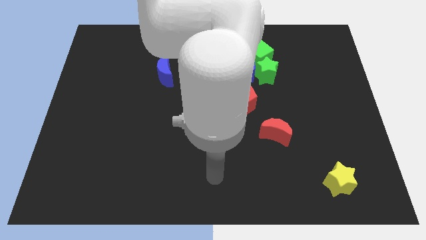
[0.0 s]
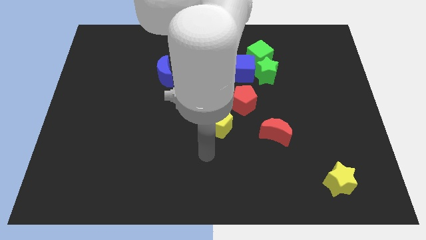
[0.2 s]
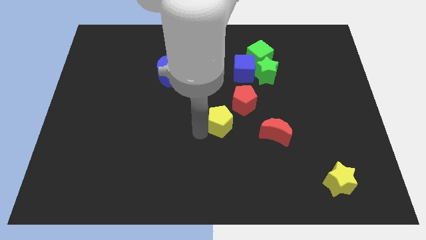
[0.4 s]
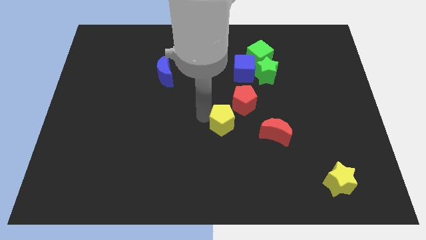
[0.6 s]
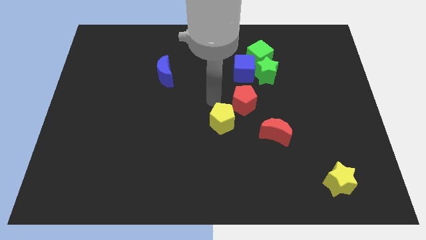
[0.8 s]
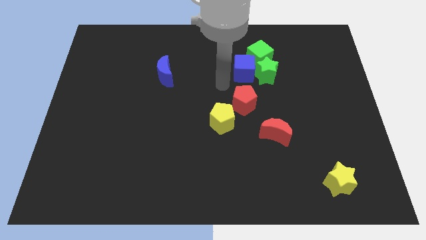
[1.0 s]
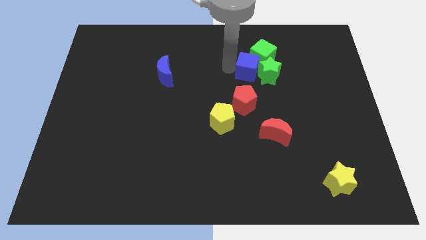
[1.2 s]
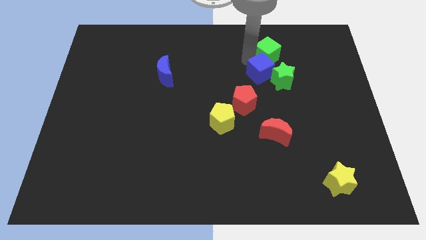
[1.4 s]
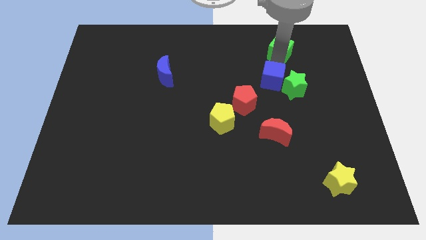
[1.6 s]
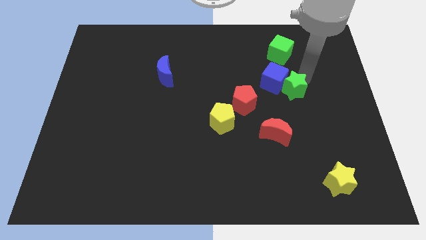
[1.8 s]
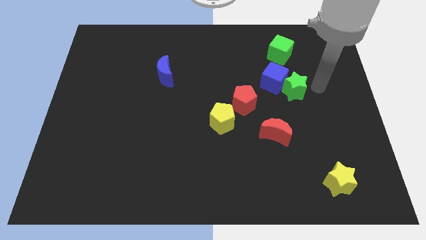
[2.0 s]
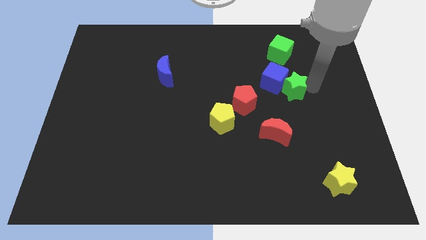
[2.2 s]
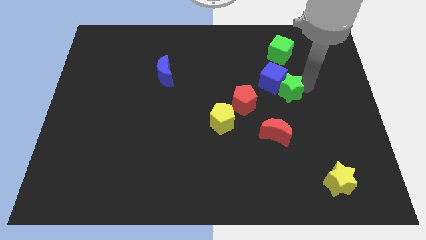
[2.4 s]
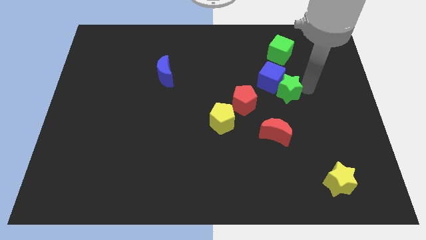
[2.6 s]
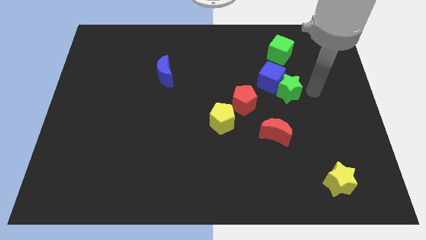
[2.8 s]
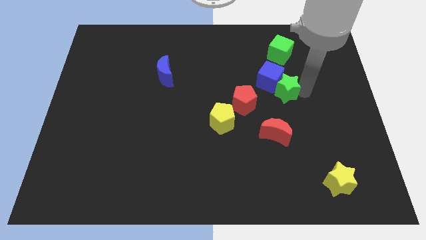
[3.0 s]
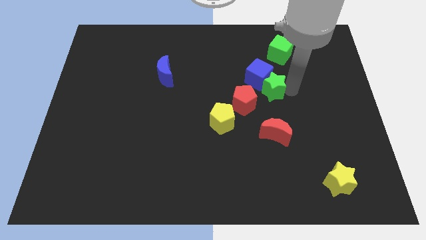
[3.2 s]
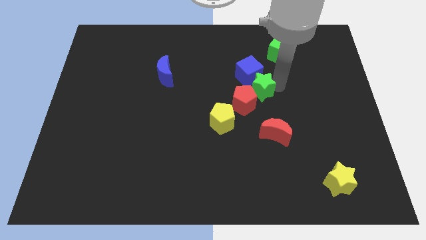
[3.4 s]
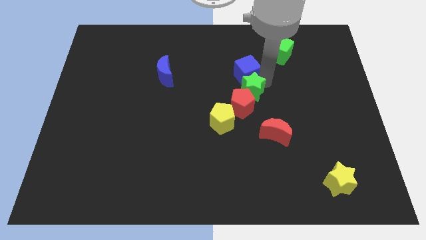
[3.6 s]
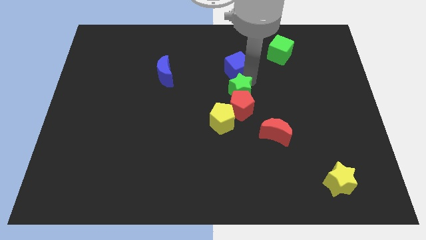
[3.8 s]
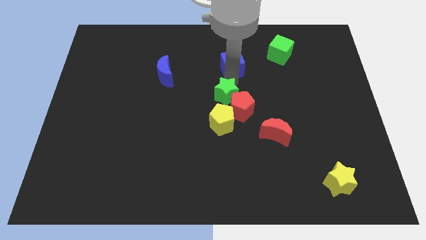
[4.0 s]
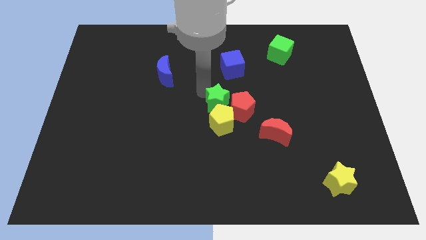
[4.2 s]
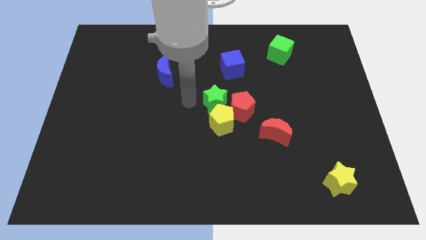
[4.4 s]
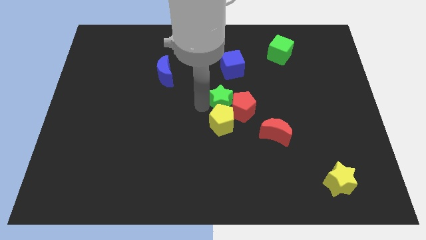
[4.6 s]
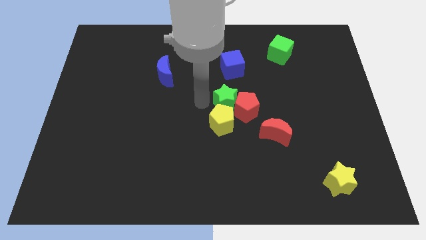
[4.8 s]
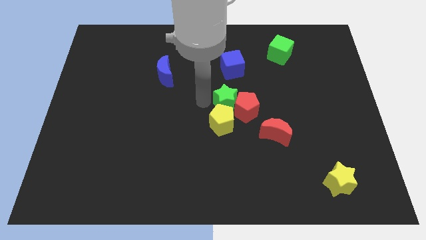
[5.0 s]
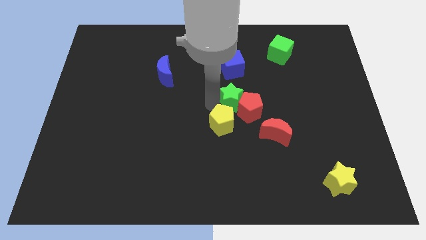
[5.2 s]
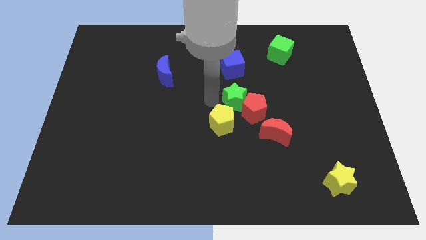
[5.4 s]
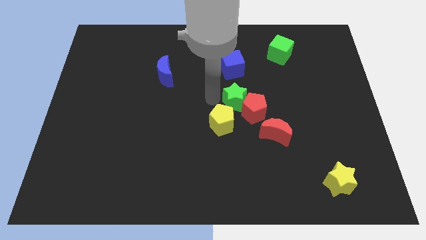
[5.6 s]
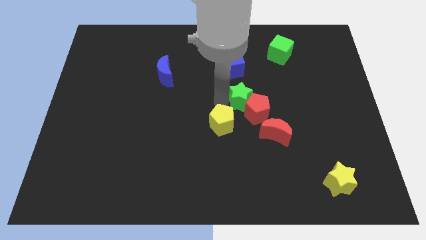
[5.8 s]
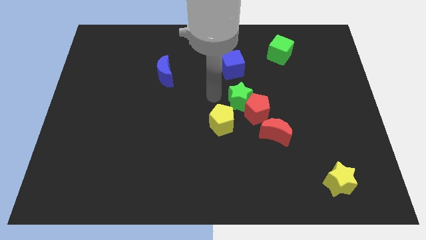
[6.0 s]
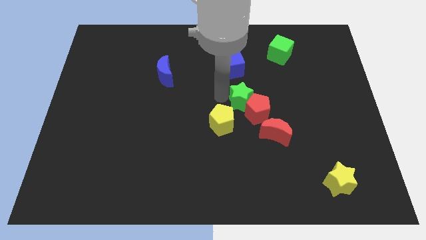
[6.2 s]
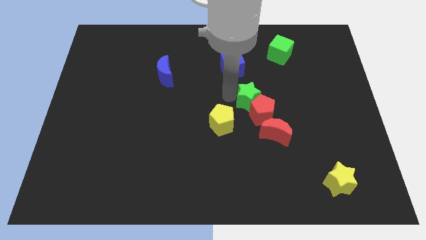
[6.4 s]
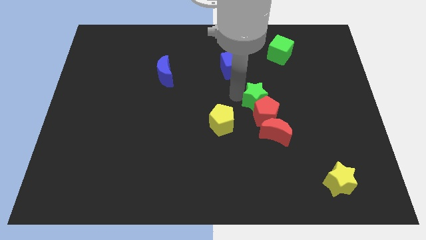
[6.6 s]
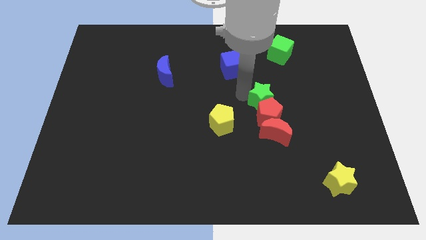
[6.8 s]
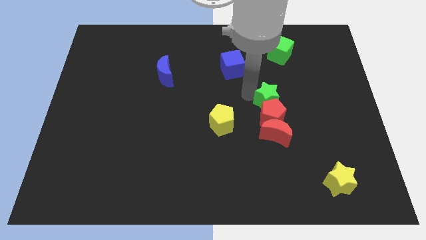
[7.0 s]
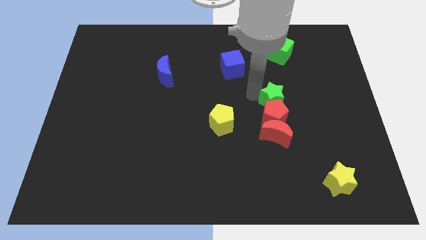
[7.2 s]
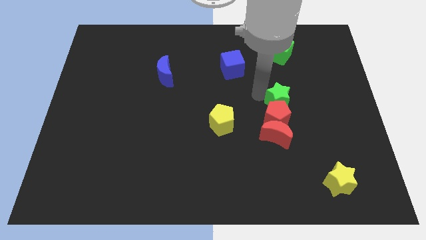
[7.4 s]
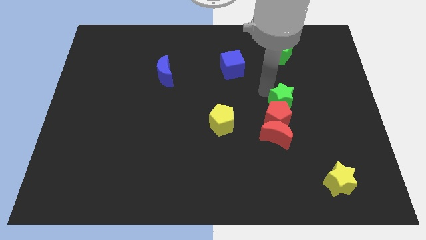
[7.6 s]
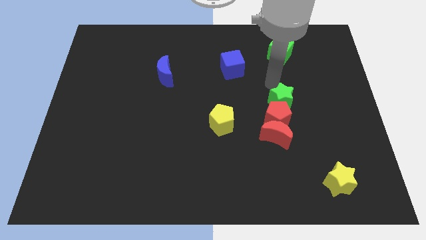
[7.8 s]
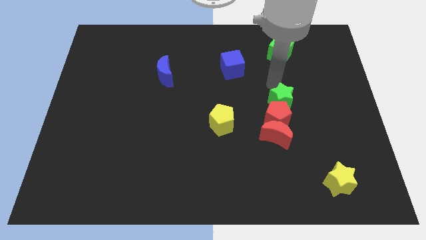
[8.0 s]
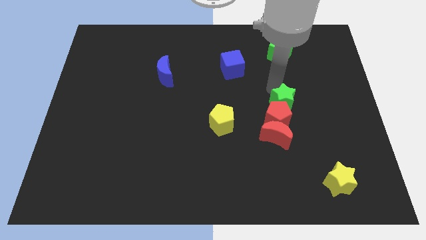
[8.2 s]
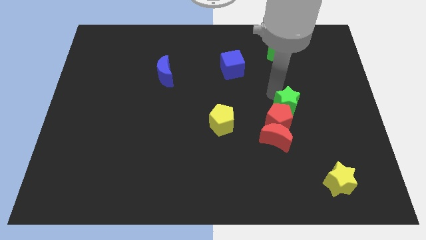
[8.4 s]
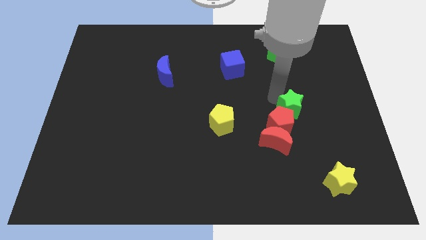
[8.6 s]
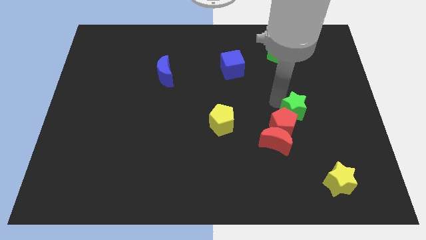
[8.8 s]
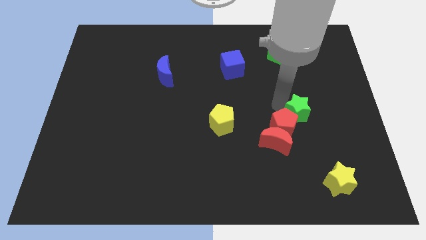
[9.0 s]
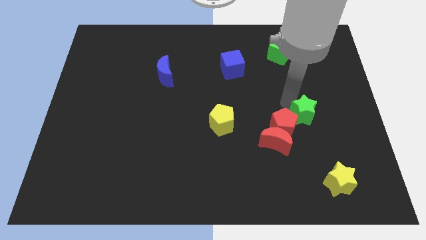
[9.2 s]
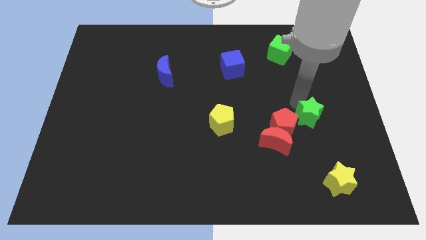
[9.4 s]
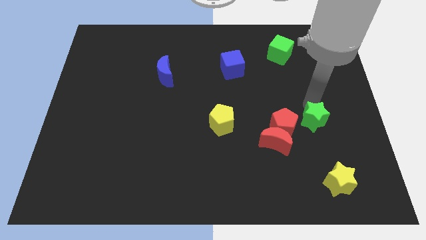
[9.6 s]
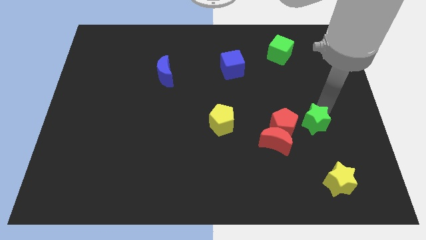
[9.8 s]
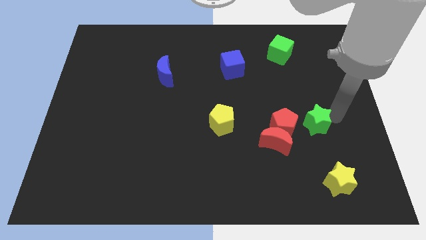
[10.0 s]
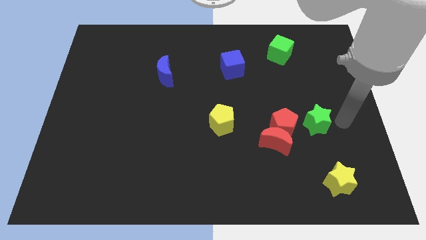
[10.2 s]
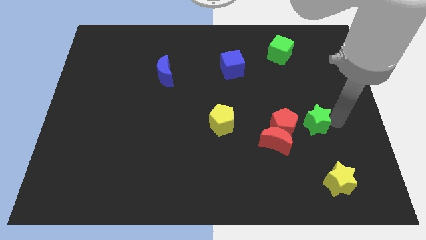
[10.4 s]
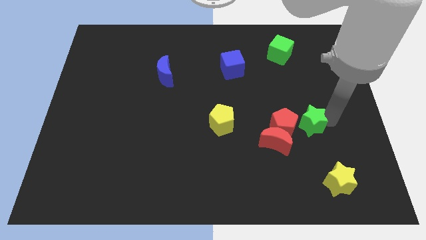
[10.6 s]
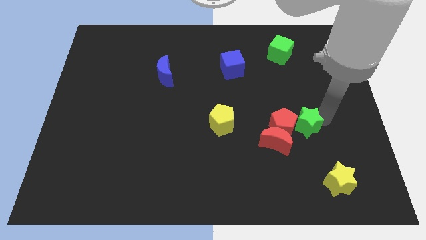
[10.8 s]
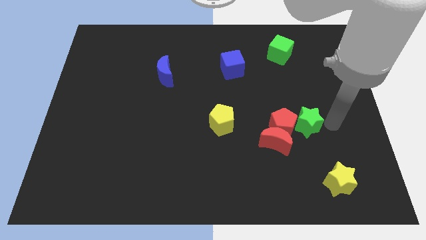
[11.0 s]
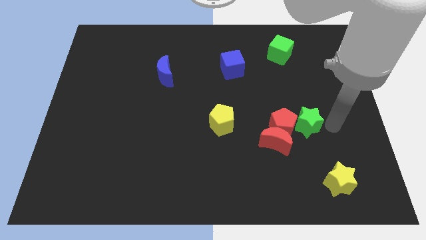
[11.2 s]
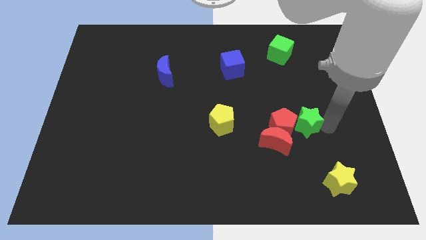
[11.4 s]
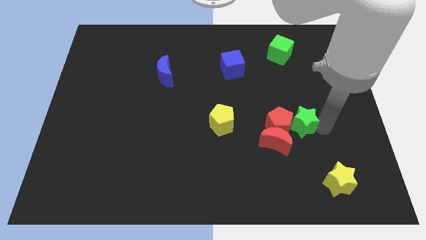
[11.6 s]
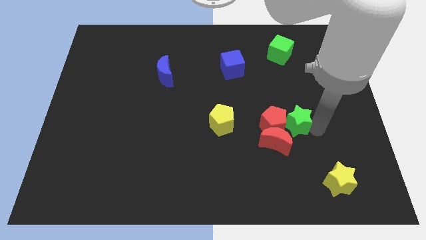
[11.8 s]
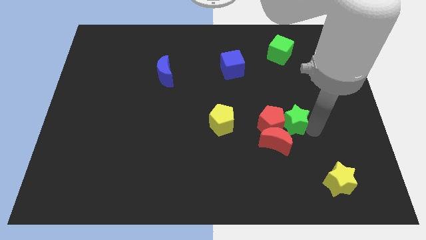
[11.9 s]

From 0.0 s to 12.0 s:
slide the green star to the right side of the yellow pentagon
